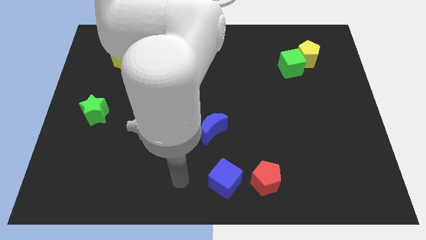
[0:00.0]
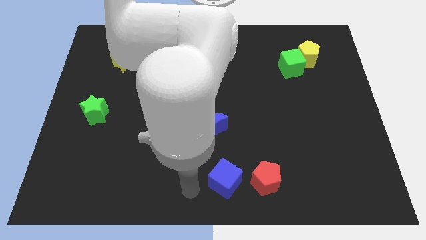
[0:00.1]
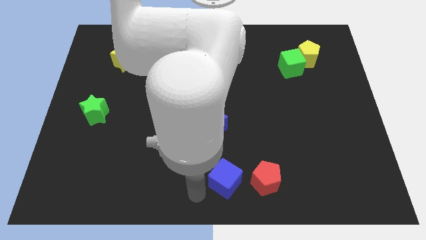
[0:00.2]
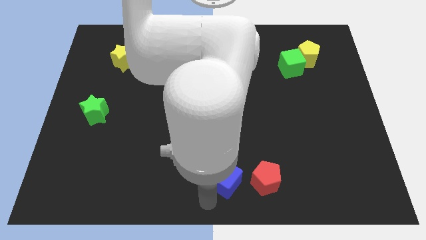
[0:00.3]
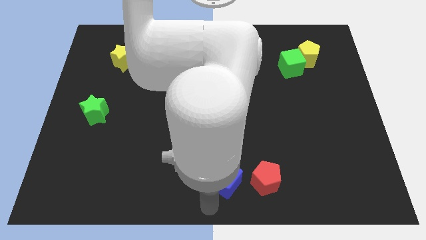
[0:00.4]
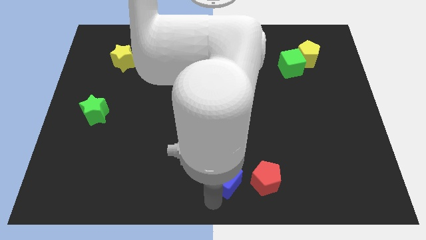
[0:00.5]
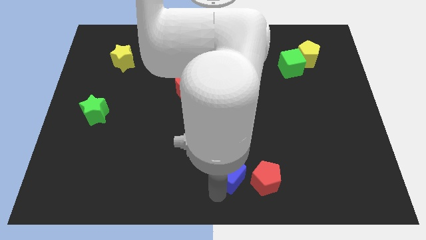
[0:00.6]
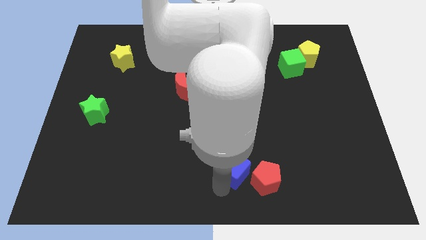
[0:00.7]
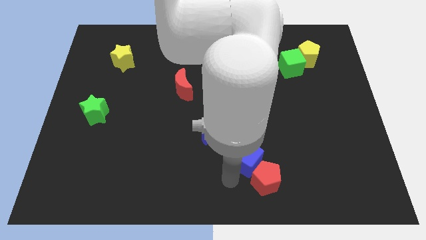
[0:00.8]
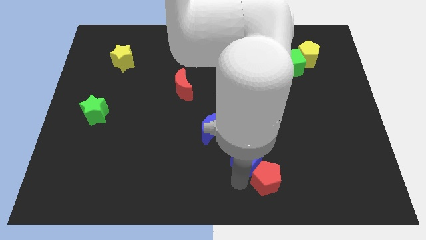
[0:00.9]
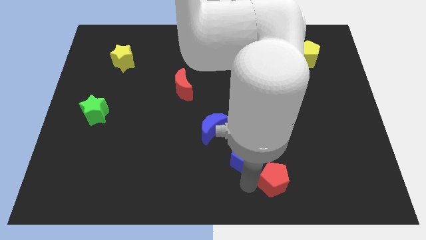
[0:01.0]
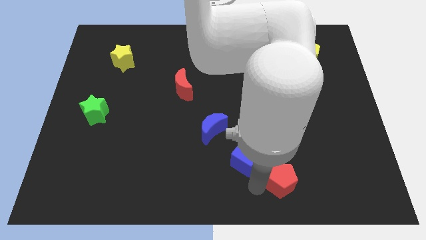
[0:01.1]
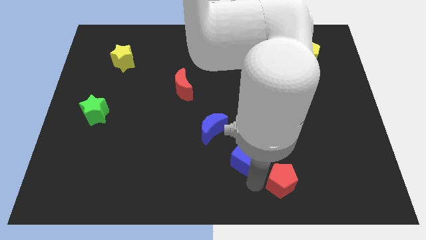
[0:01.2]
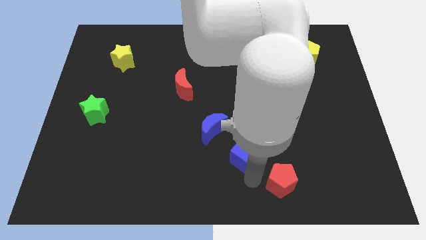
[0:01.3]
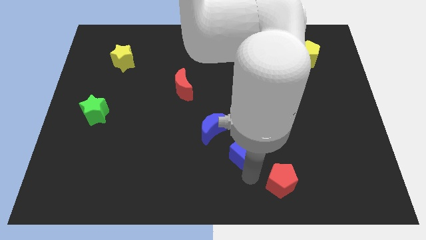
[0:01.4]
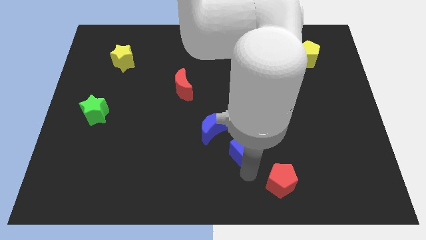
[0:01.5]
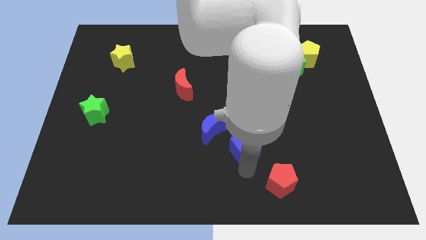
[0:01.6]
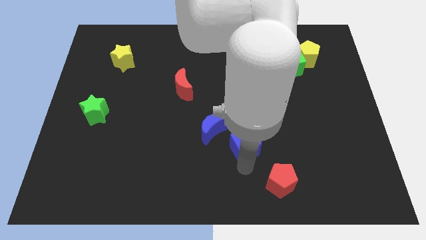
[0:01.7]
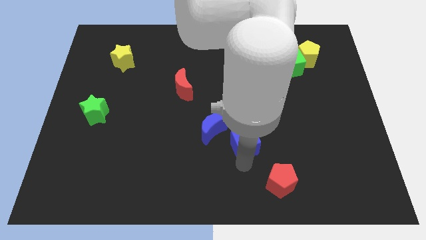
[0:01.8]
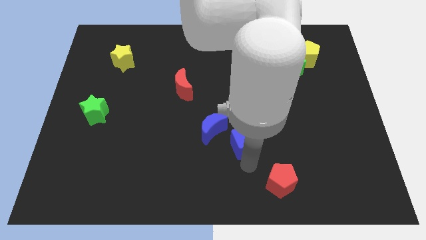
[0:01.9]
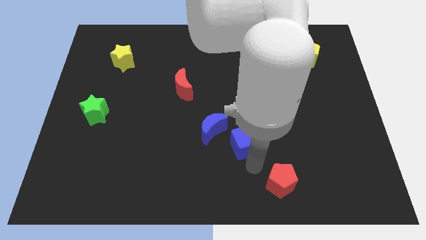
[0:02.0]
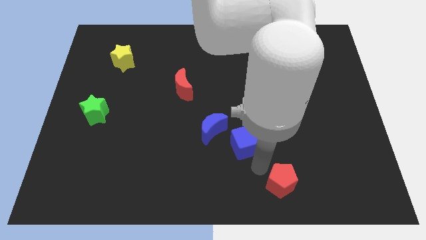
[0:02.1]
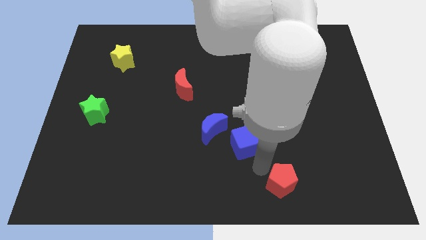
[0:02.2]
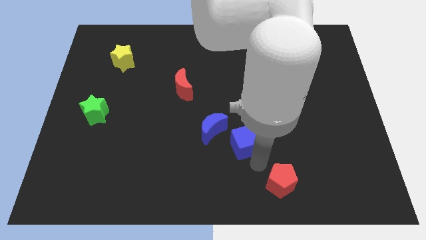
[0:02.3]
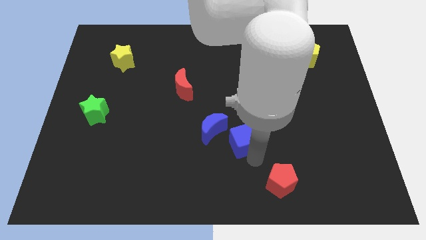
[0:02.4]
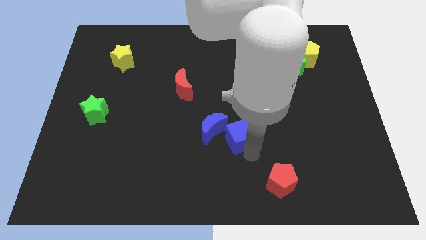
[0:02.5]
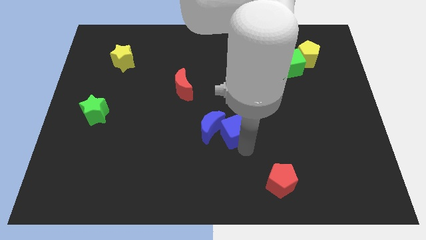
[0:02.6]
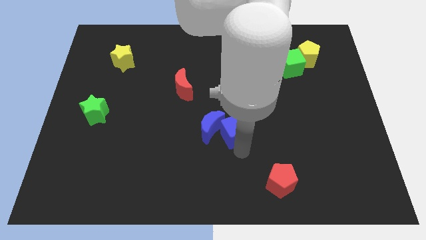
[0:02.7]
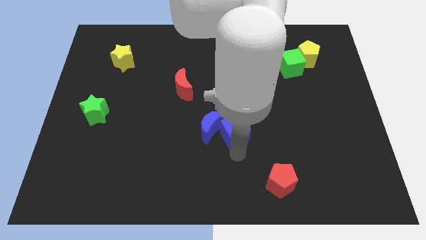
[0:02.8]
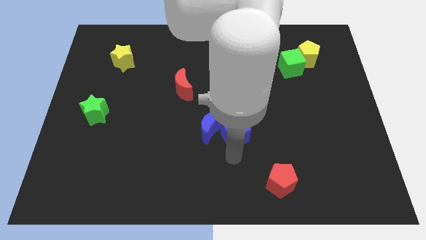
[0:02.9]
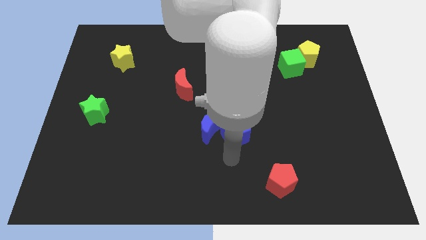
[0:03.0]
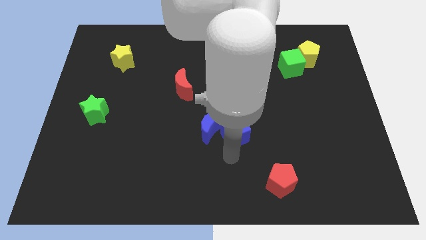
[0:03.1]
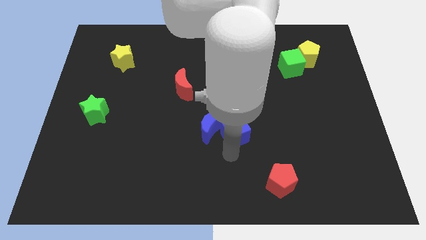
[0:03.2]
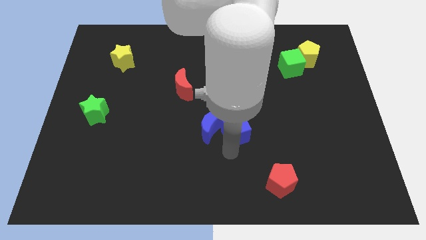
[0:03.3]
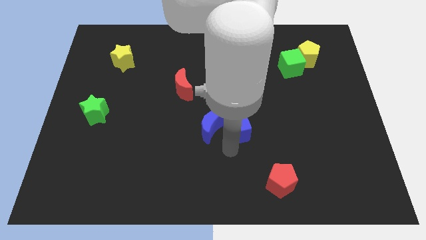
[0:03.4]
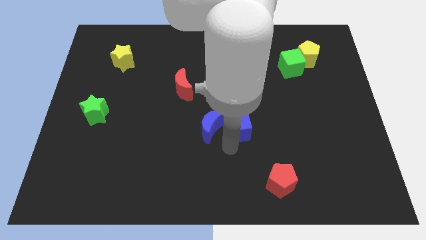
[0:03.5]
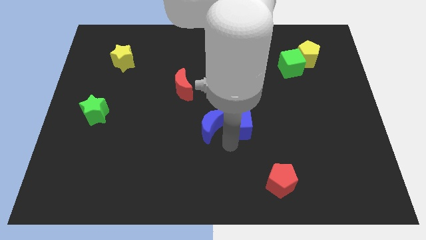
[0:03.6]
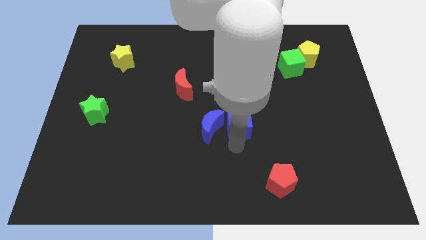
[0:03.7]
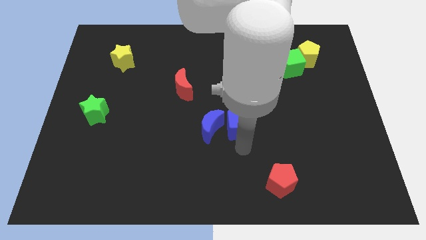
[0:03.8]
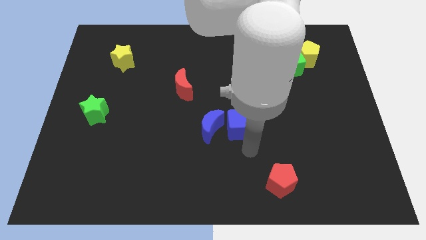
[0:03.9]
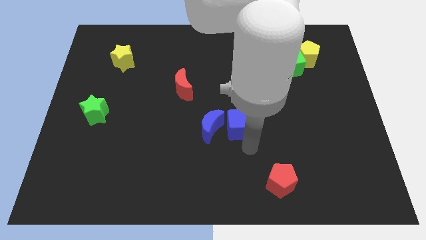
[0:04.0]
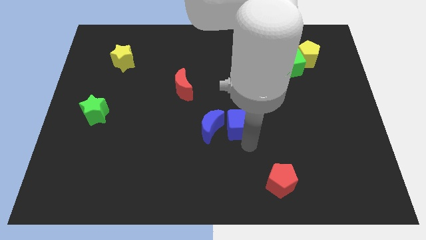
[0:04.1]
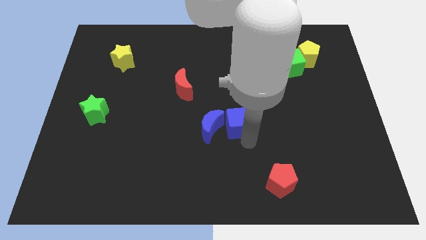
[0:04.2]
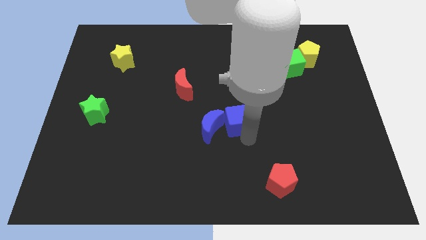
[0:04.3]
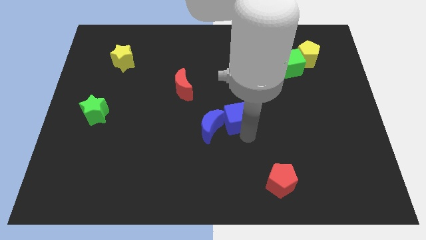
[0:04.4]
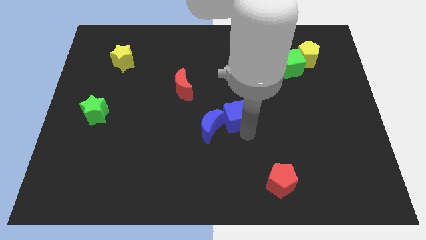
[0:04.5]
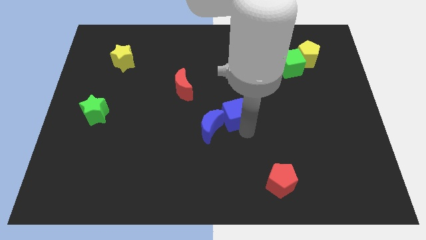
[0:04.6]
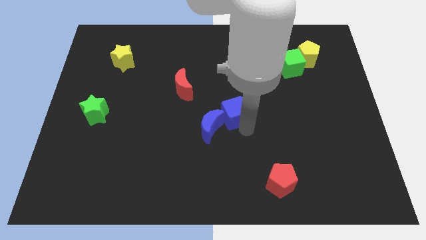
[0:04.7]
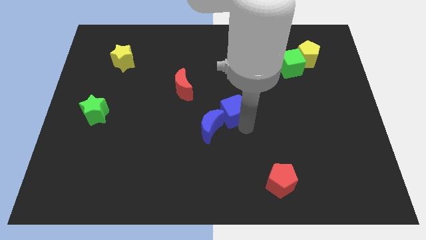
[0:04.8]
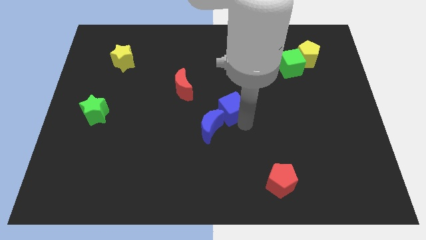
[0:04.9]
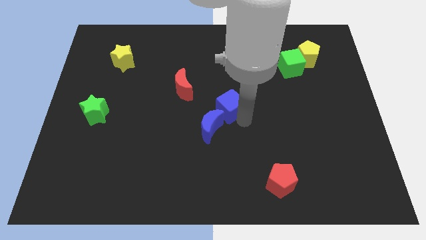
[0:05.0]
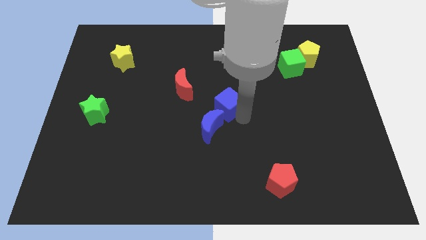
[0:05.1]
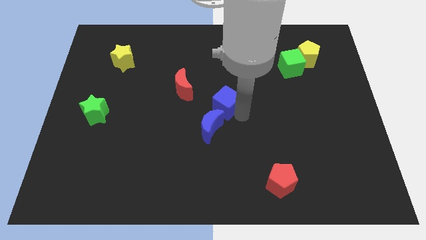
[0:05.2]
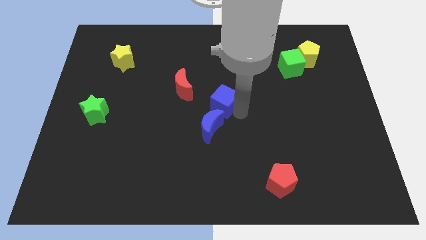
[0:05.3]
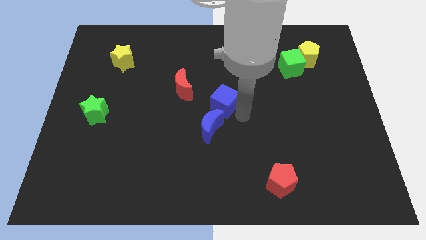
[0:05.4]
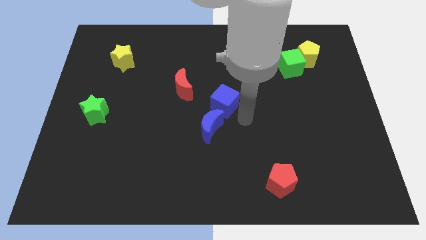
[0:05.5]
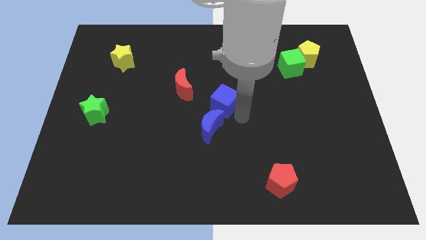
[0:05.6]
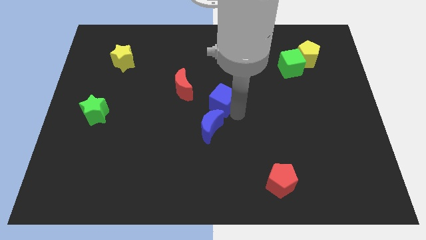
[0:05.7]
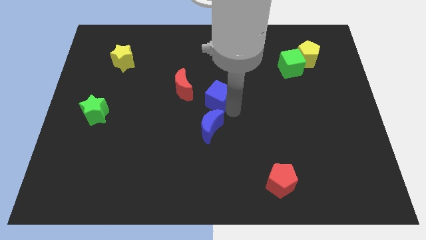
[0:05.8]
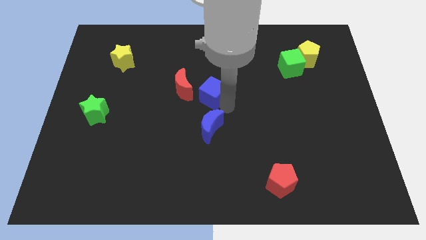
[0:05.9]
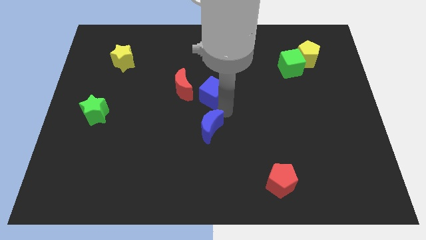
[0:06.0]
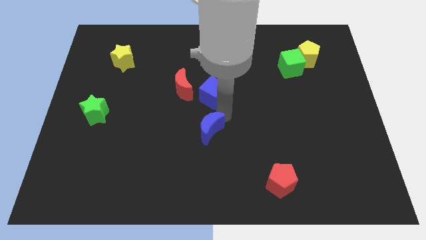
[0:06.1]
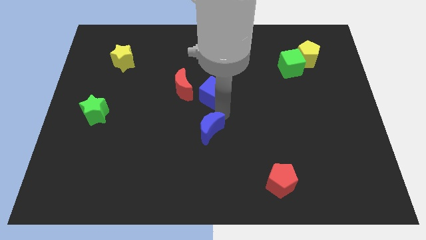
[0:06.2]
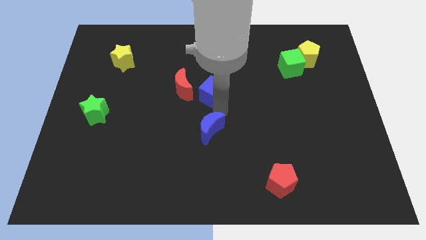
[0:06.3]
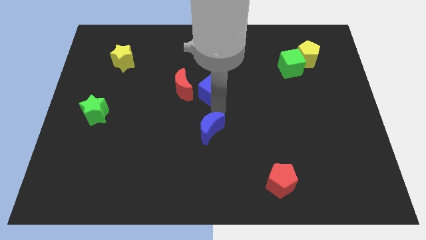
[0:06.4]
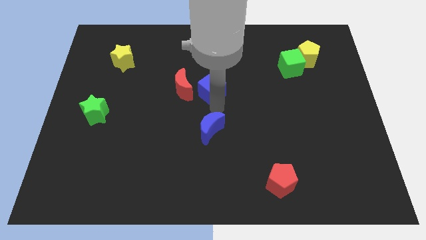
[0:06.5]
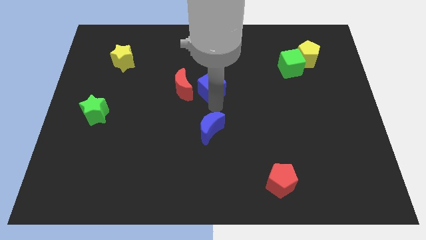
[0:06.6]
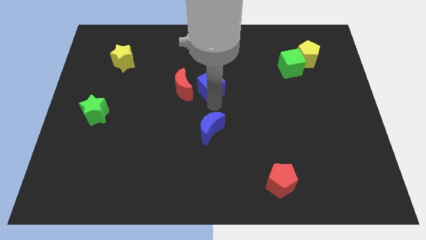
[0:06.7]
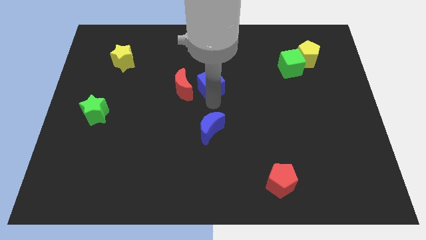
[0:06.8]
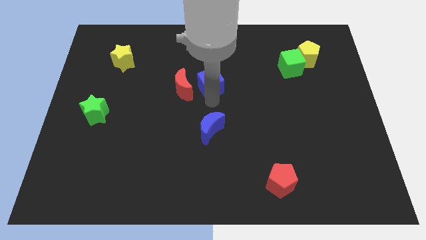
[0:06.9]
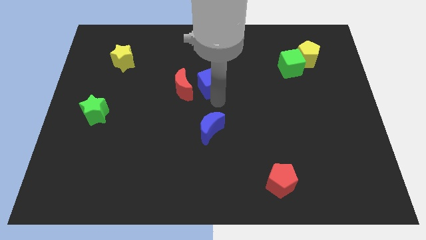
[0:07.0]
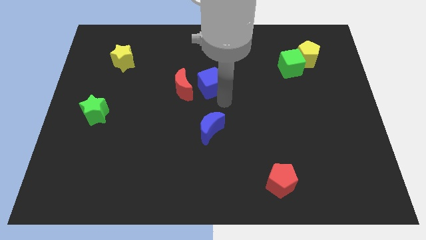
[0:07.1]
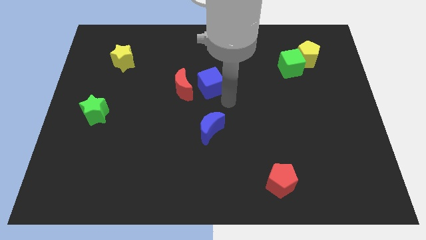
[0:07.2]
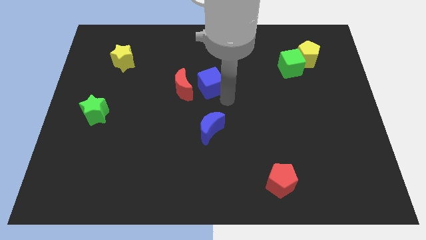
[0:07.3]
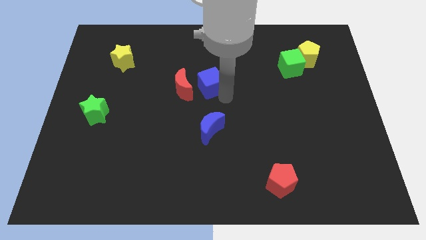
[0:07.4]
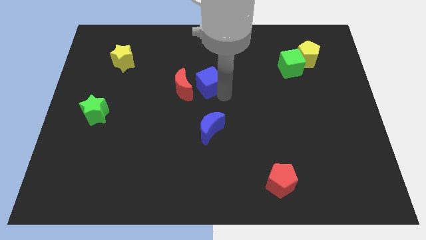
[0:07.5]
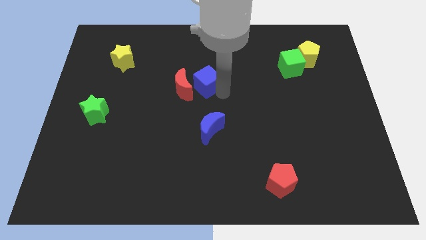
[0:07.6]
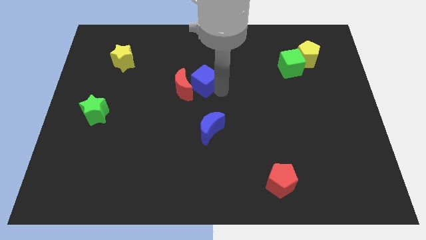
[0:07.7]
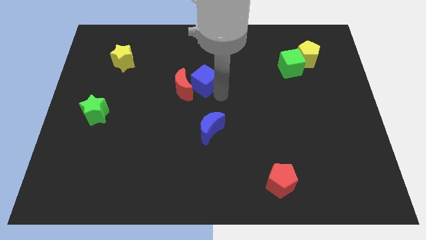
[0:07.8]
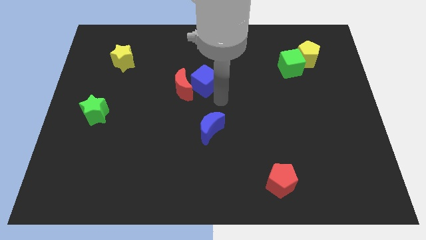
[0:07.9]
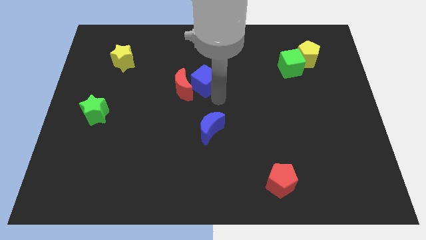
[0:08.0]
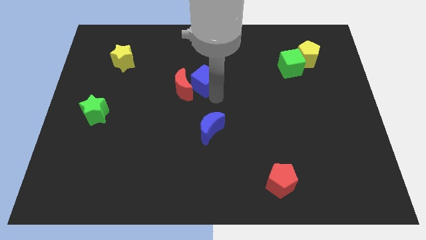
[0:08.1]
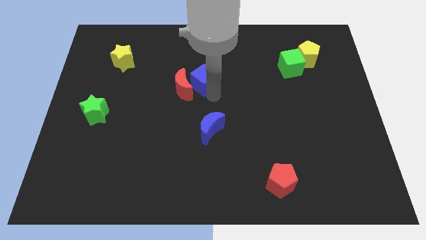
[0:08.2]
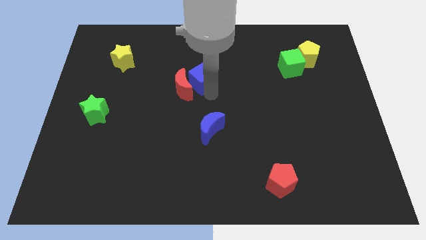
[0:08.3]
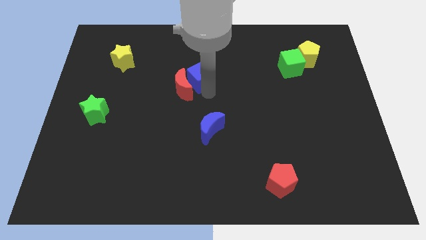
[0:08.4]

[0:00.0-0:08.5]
slide the blue cube to the top side of the red moon
